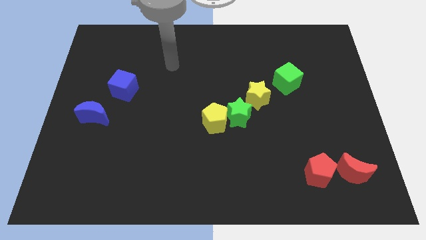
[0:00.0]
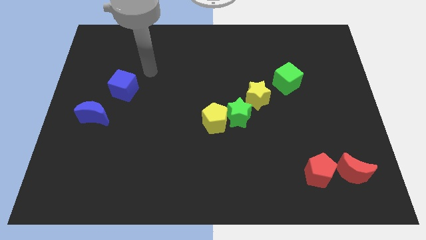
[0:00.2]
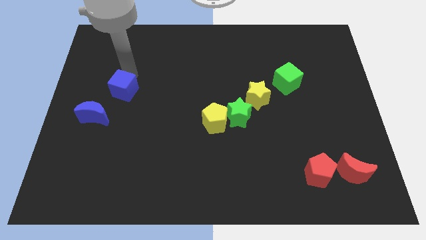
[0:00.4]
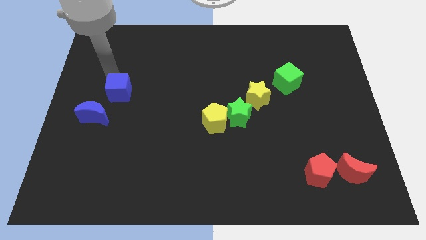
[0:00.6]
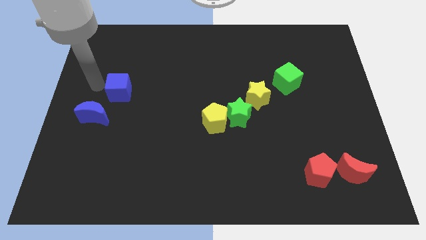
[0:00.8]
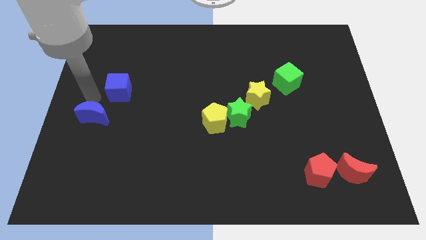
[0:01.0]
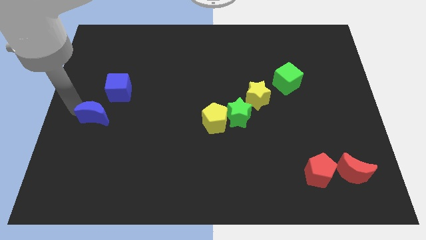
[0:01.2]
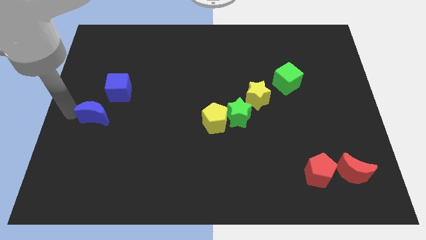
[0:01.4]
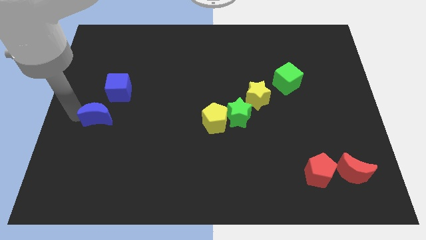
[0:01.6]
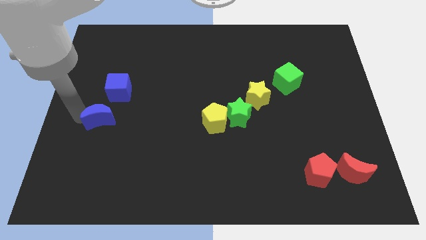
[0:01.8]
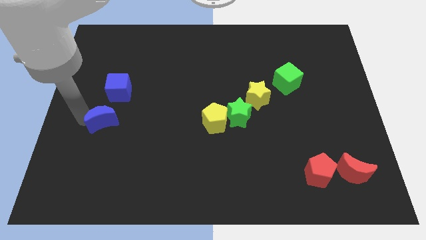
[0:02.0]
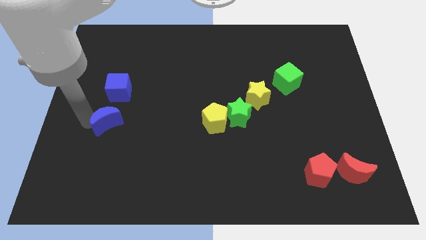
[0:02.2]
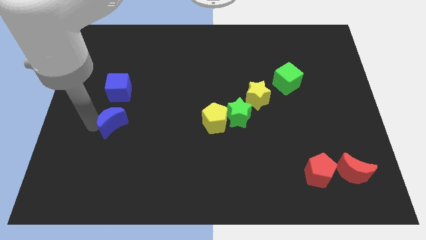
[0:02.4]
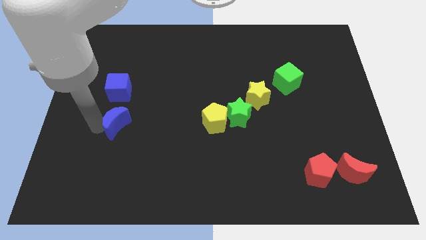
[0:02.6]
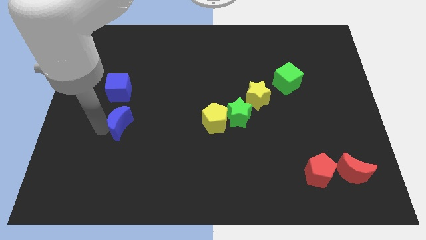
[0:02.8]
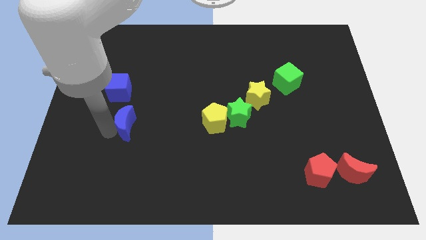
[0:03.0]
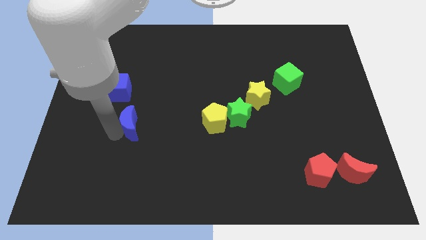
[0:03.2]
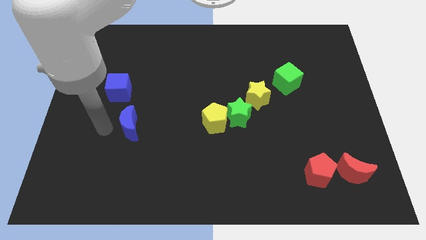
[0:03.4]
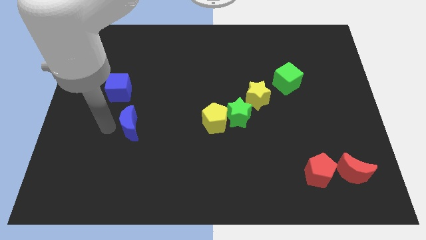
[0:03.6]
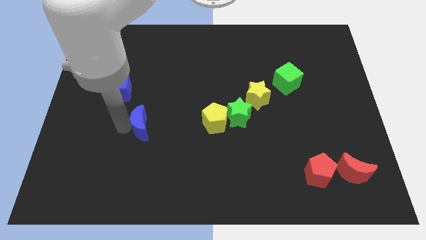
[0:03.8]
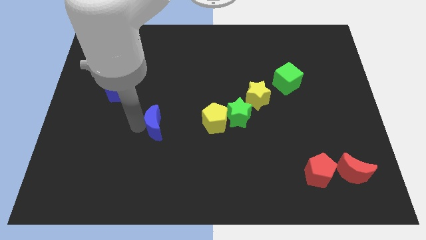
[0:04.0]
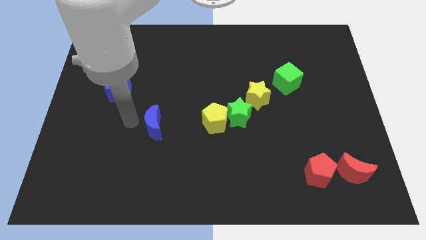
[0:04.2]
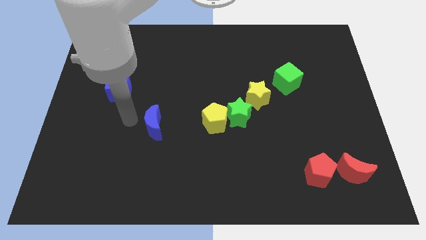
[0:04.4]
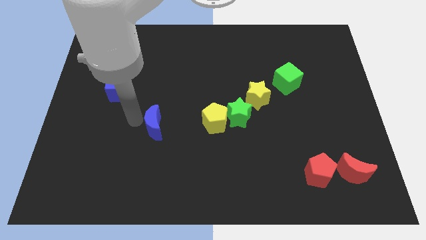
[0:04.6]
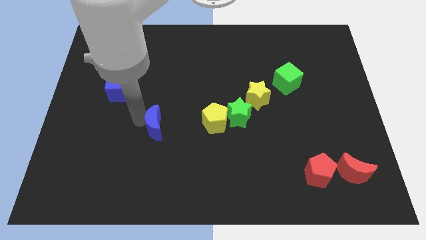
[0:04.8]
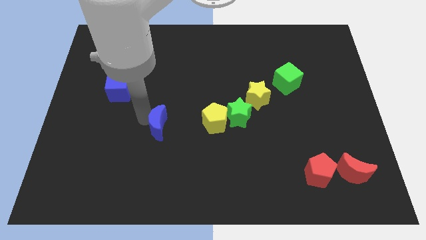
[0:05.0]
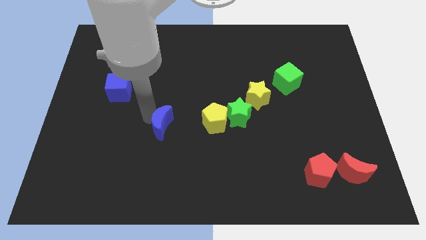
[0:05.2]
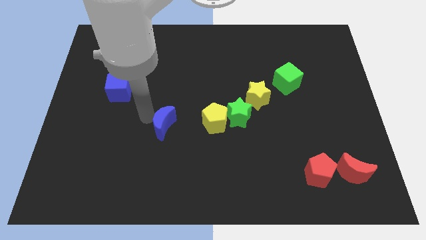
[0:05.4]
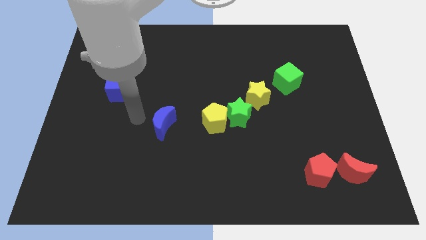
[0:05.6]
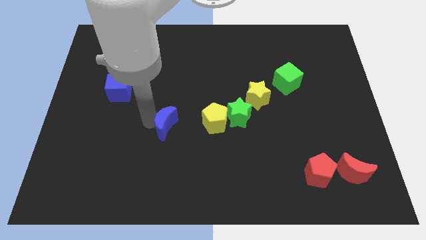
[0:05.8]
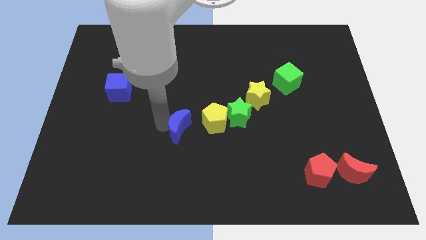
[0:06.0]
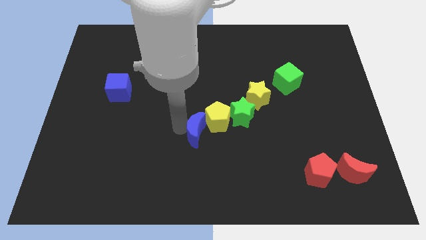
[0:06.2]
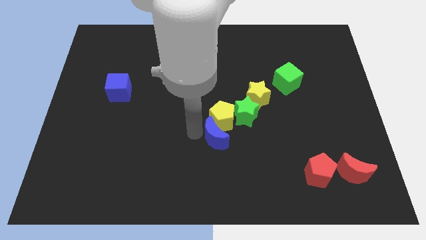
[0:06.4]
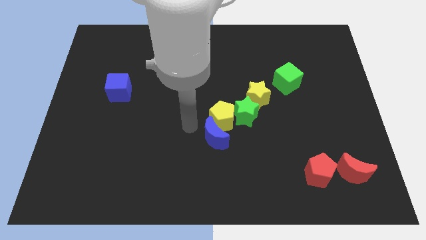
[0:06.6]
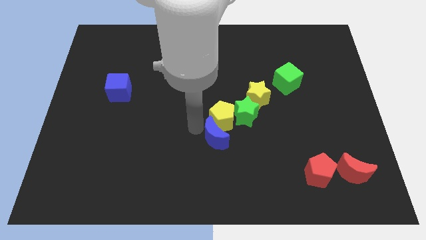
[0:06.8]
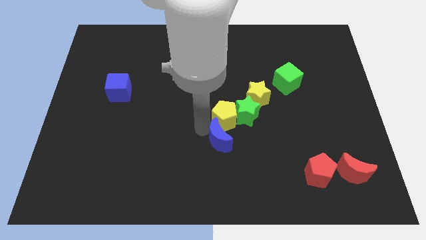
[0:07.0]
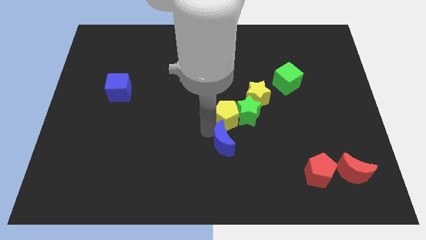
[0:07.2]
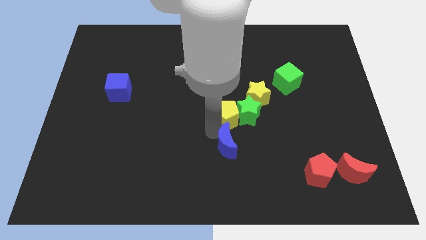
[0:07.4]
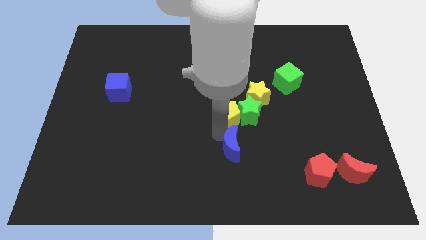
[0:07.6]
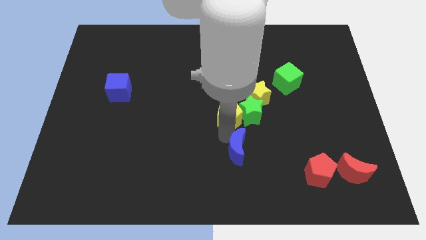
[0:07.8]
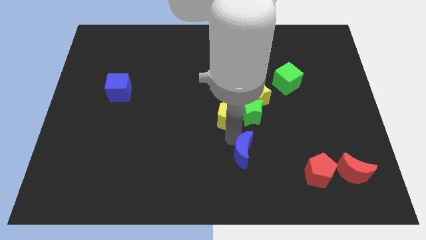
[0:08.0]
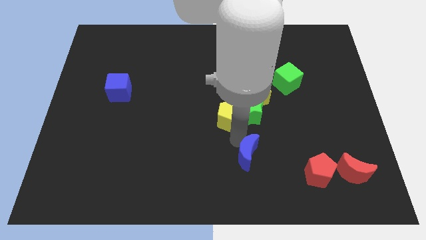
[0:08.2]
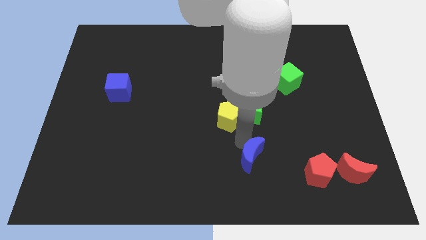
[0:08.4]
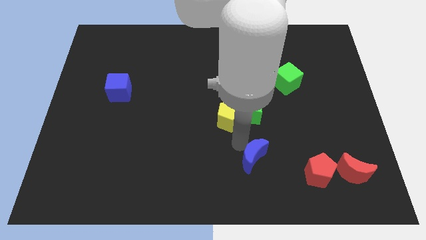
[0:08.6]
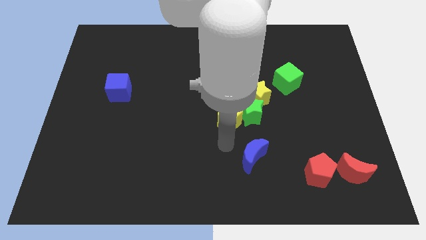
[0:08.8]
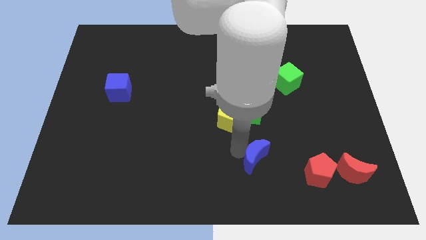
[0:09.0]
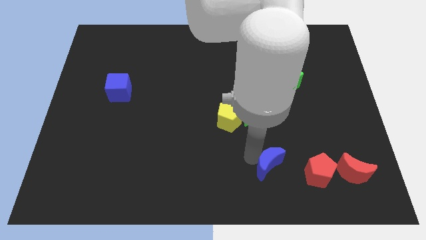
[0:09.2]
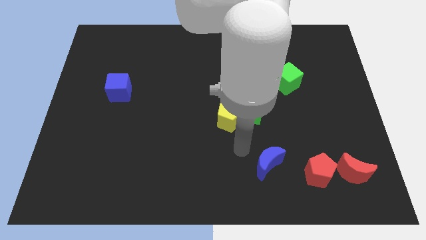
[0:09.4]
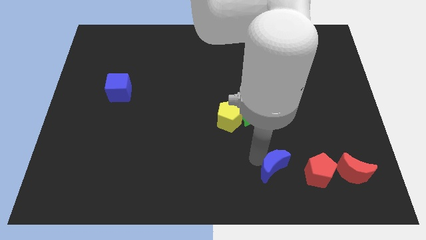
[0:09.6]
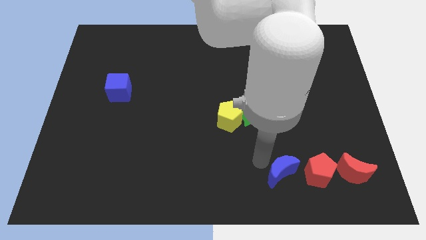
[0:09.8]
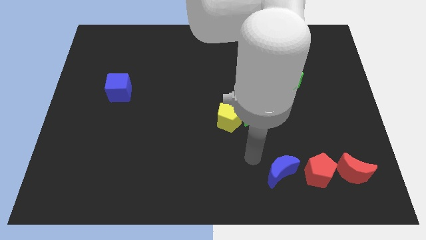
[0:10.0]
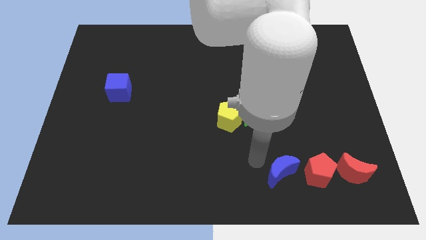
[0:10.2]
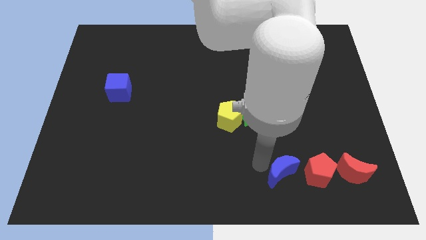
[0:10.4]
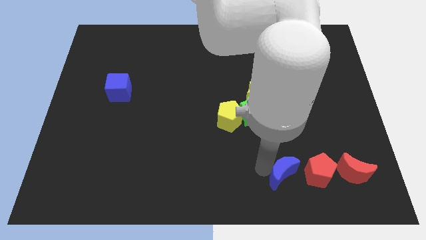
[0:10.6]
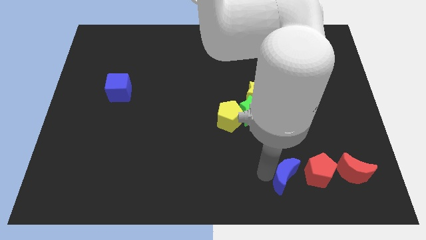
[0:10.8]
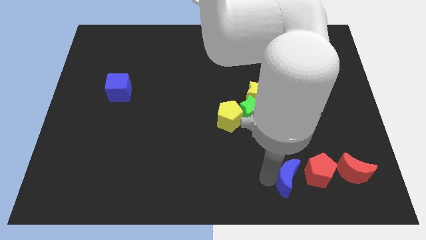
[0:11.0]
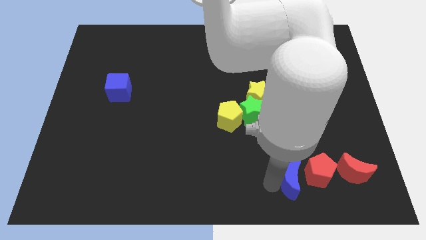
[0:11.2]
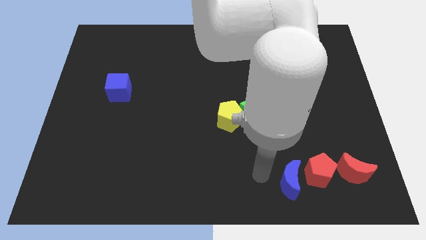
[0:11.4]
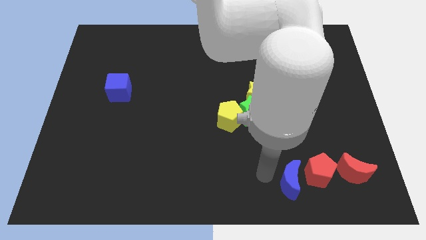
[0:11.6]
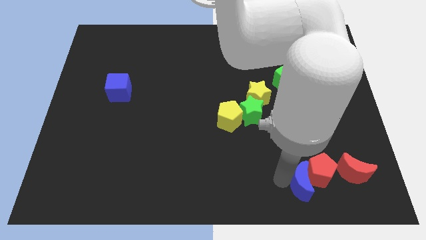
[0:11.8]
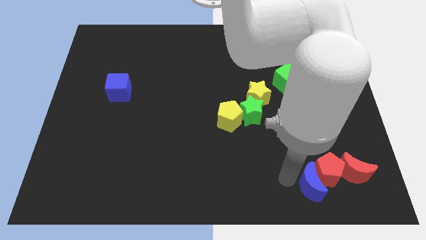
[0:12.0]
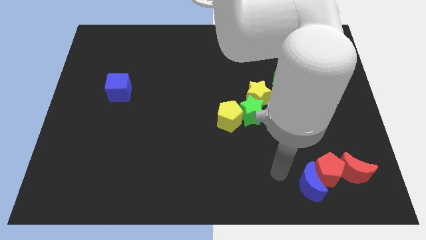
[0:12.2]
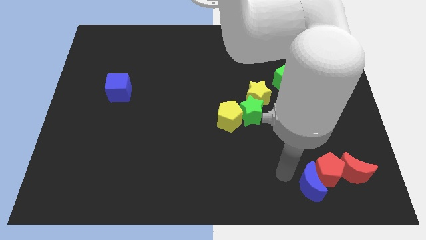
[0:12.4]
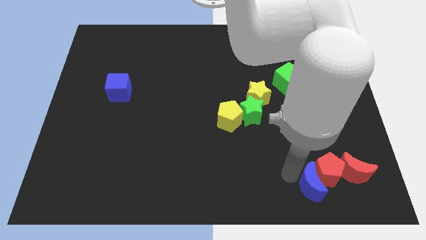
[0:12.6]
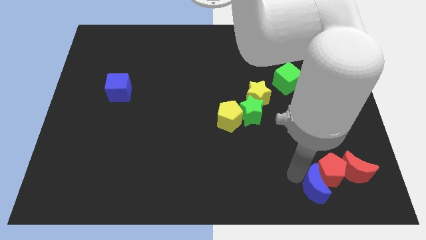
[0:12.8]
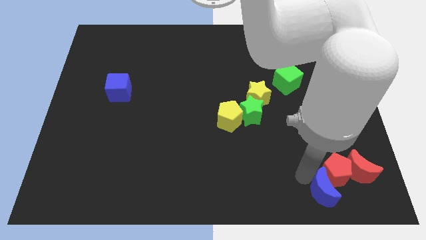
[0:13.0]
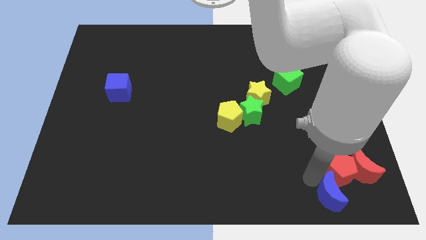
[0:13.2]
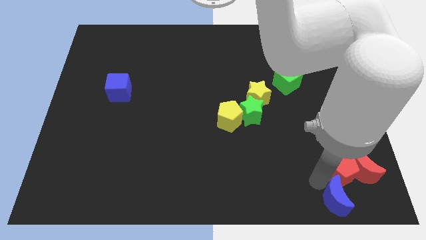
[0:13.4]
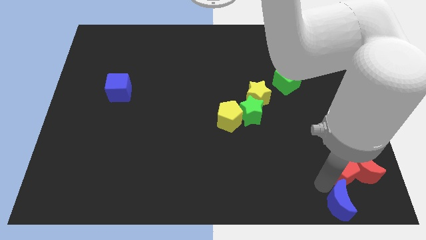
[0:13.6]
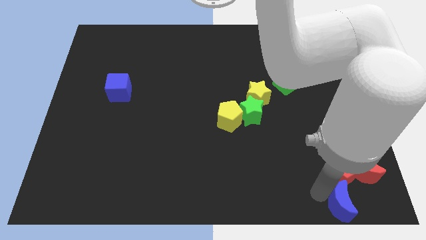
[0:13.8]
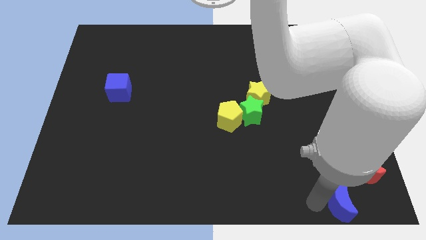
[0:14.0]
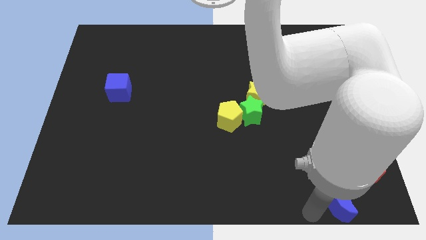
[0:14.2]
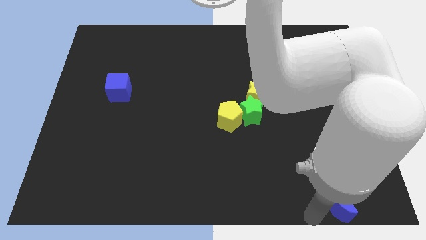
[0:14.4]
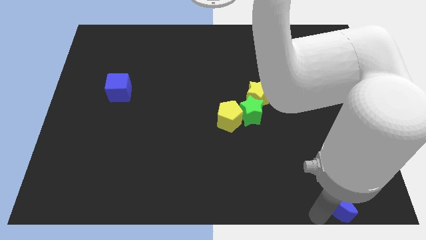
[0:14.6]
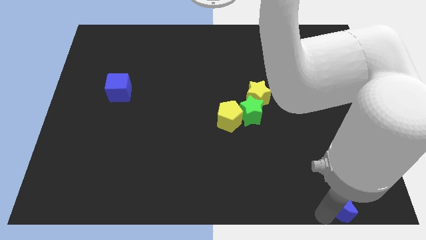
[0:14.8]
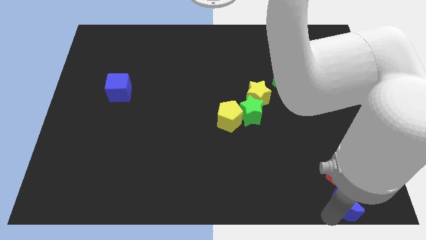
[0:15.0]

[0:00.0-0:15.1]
slide the blue moon to the lower right corner
